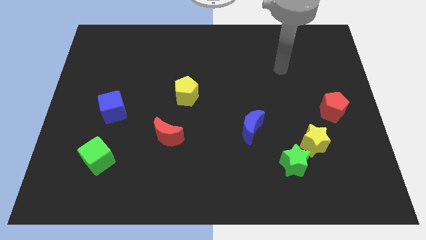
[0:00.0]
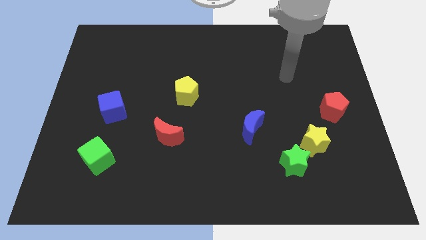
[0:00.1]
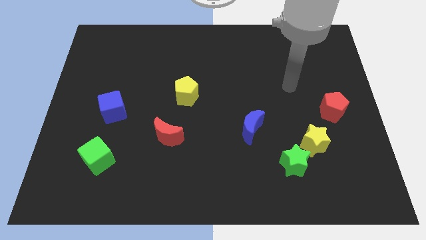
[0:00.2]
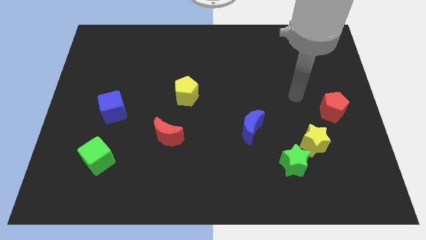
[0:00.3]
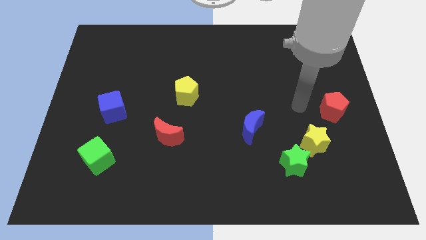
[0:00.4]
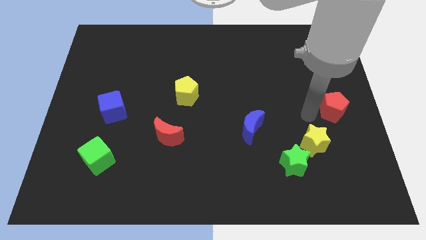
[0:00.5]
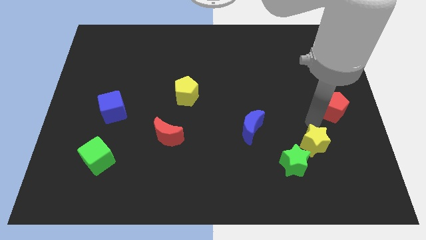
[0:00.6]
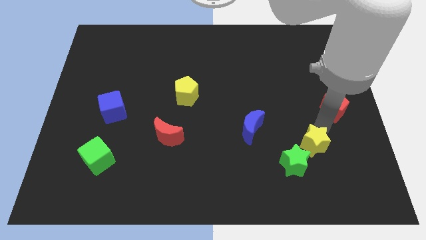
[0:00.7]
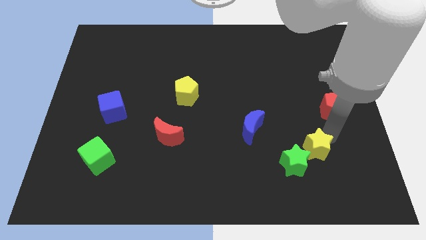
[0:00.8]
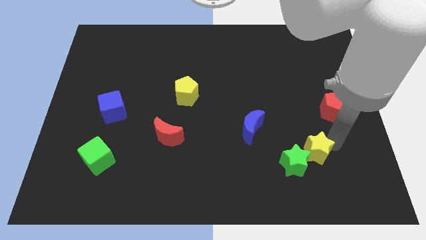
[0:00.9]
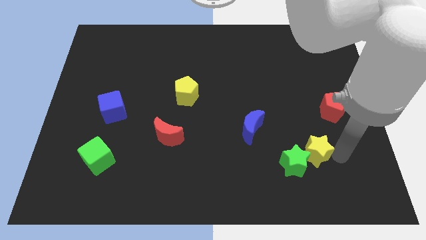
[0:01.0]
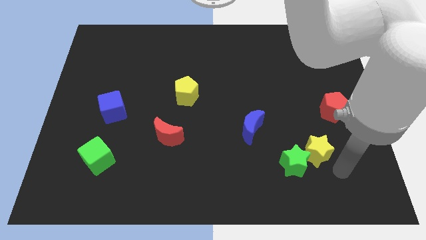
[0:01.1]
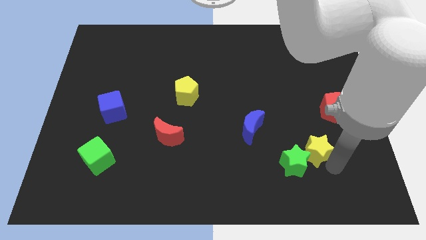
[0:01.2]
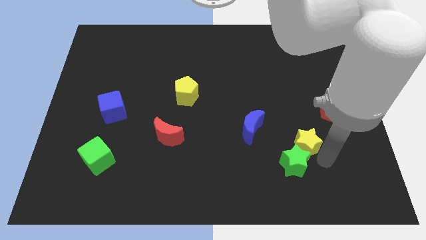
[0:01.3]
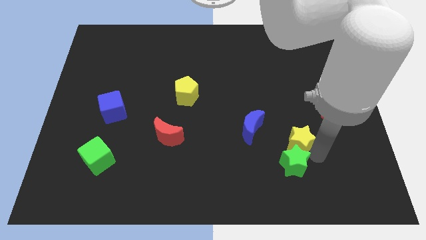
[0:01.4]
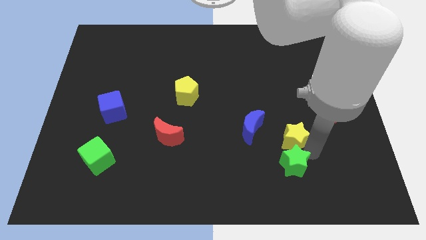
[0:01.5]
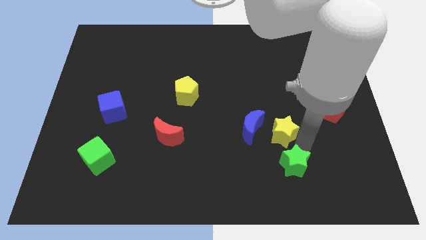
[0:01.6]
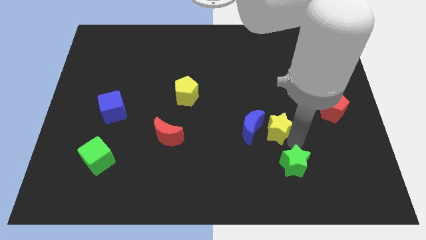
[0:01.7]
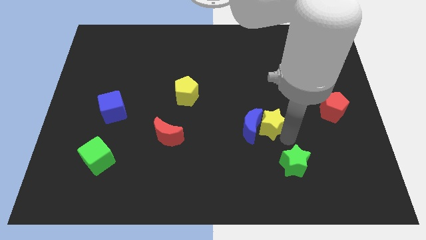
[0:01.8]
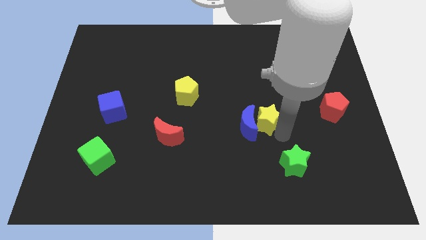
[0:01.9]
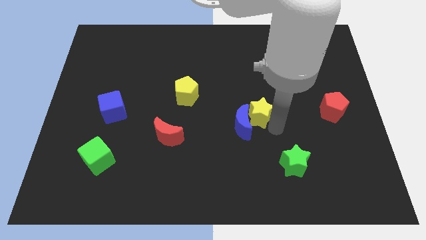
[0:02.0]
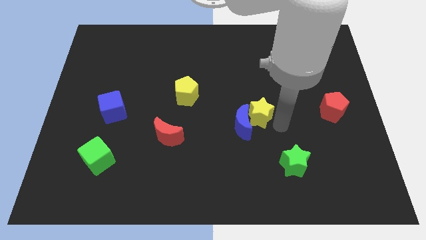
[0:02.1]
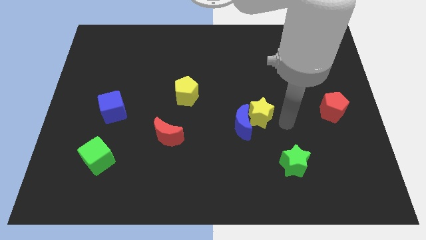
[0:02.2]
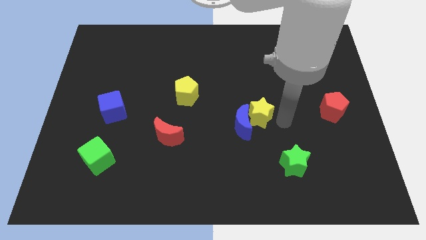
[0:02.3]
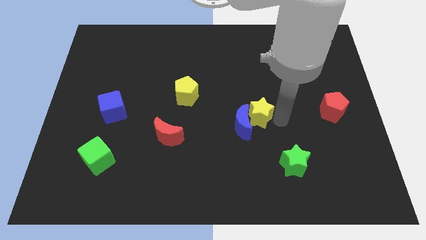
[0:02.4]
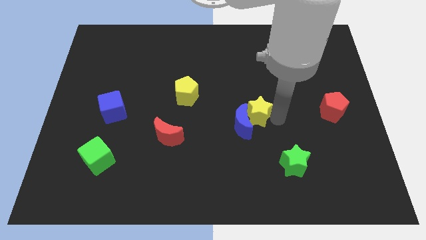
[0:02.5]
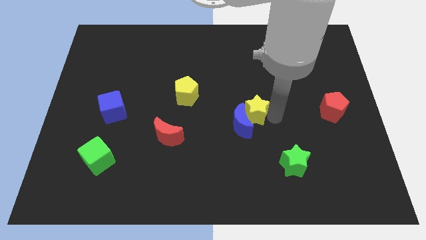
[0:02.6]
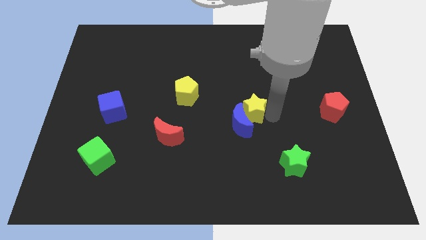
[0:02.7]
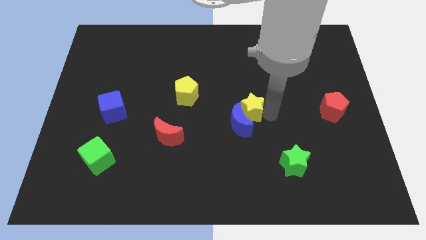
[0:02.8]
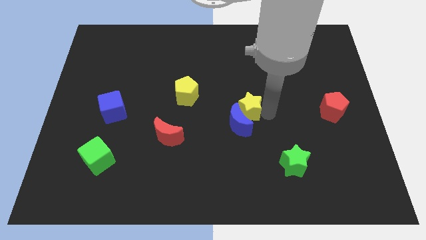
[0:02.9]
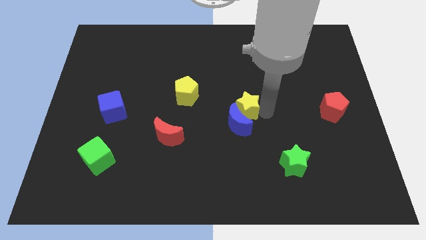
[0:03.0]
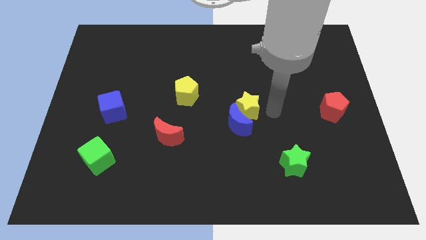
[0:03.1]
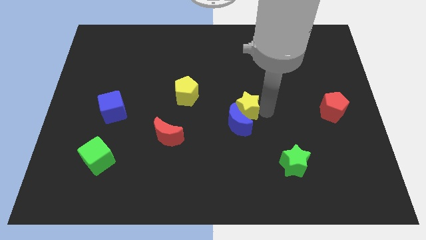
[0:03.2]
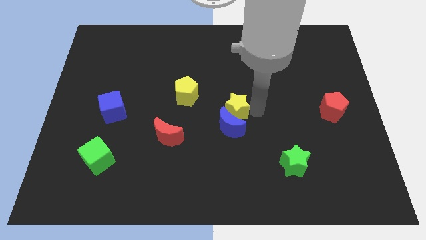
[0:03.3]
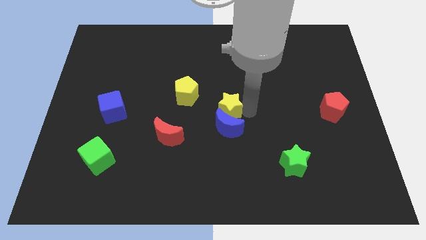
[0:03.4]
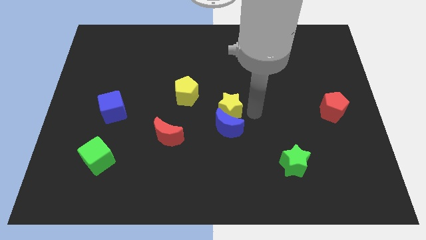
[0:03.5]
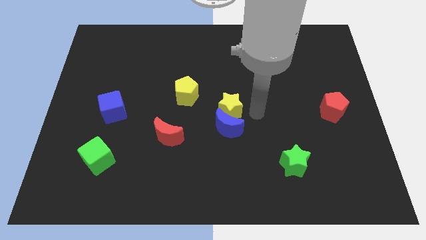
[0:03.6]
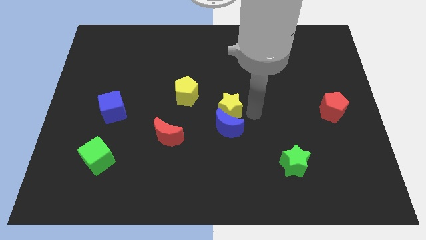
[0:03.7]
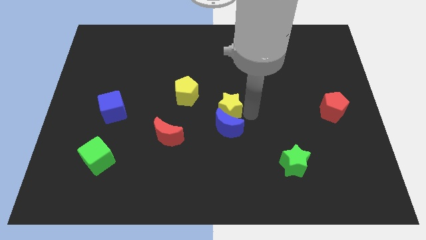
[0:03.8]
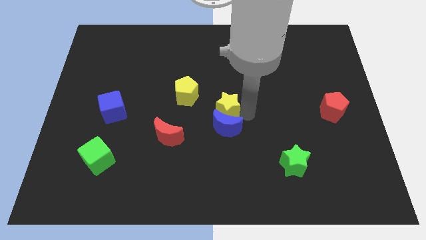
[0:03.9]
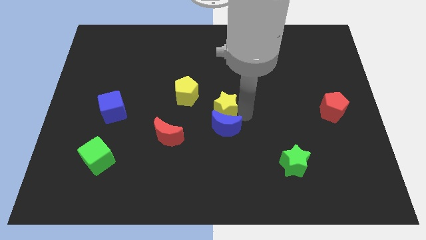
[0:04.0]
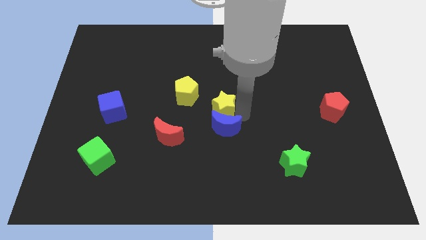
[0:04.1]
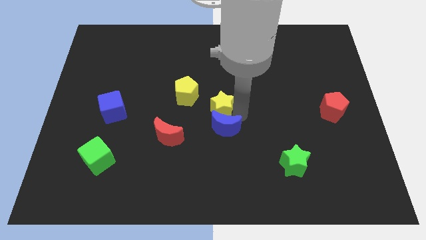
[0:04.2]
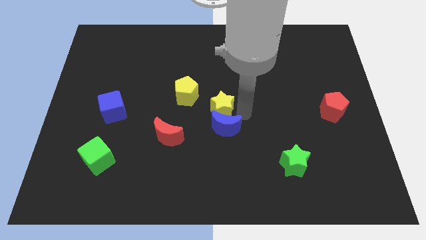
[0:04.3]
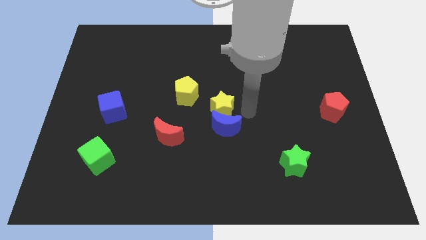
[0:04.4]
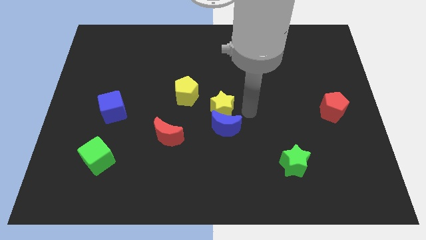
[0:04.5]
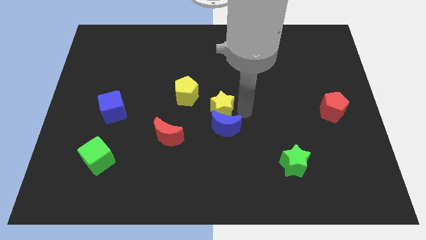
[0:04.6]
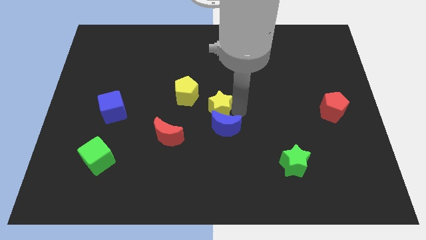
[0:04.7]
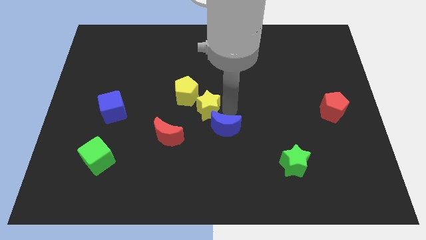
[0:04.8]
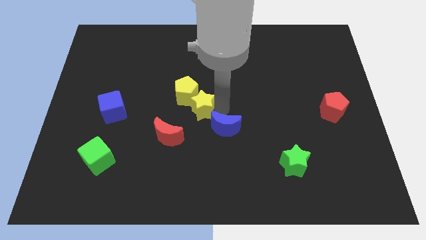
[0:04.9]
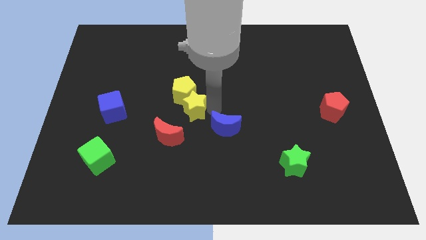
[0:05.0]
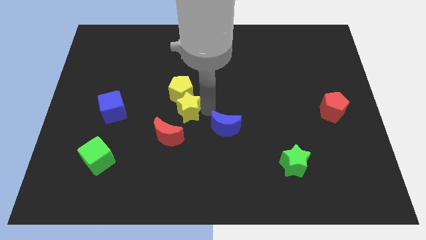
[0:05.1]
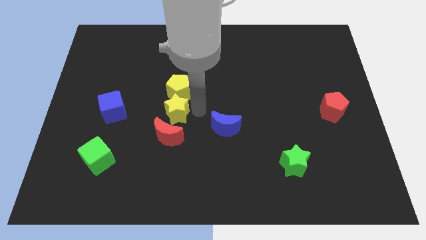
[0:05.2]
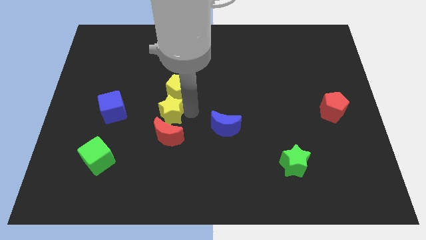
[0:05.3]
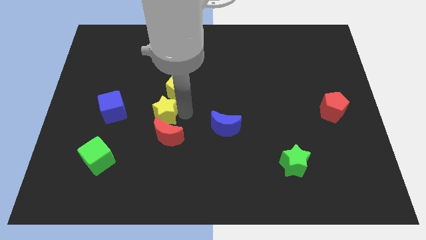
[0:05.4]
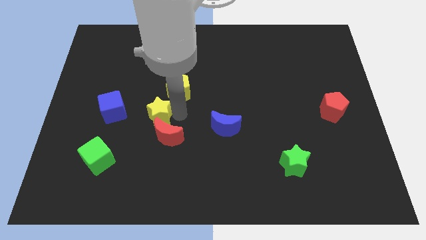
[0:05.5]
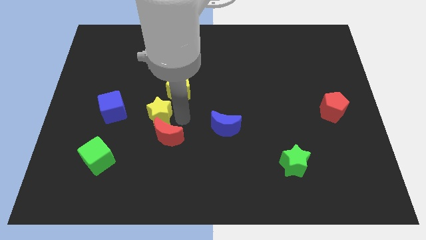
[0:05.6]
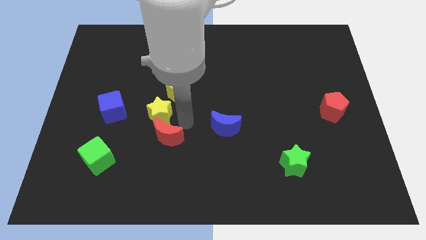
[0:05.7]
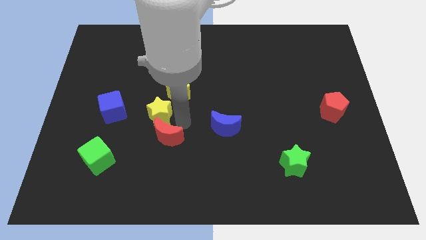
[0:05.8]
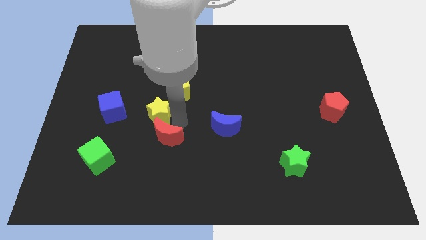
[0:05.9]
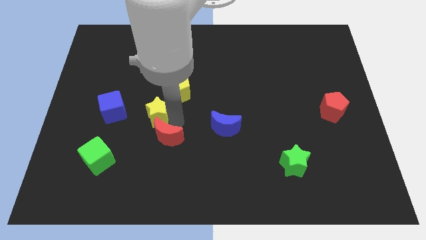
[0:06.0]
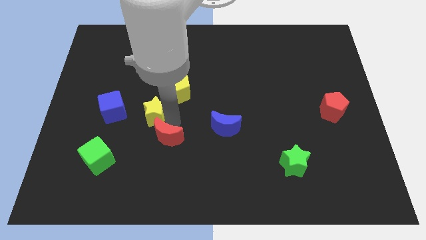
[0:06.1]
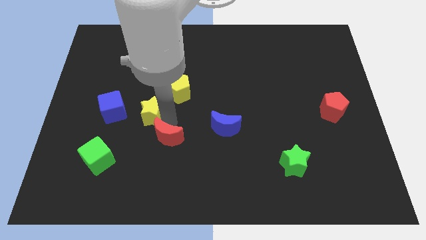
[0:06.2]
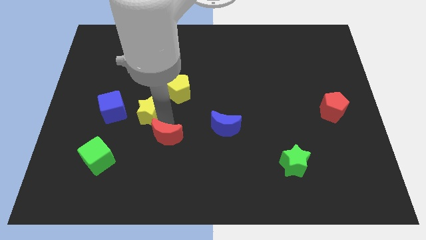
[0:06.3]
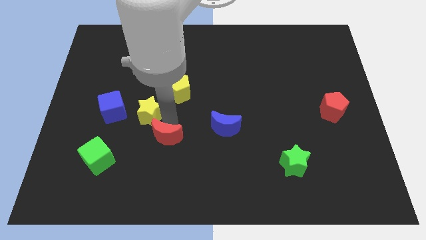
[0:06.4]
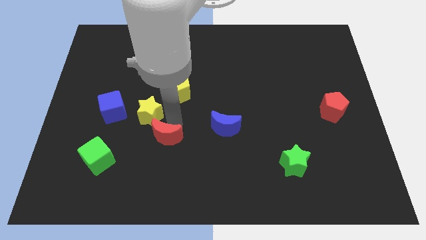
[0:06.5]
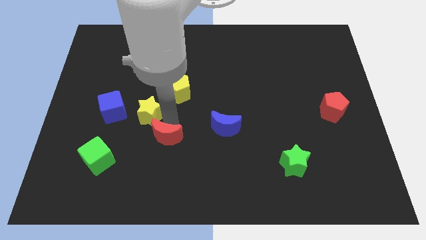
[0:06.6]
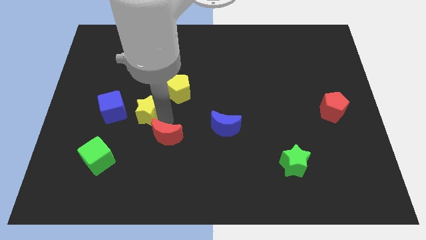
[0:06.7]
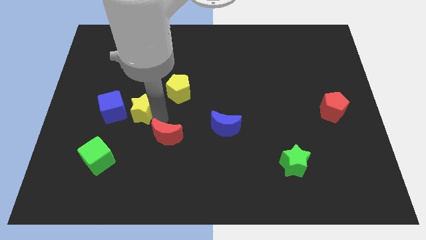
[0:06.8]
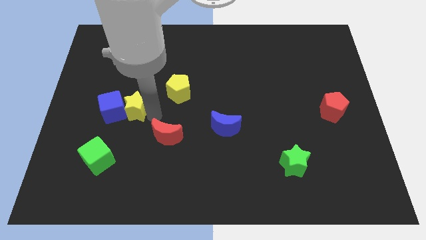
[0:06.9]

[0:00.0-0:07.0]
push the yellow star towards the blue cube
